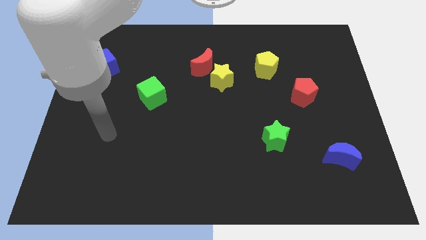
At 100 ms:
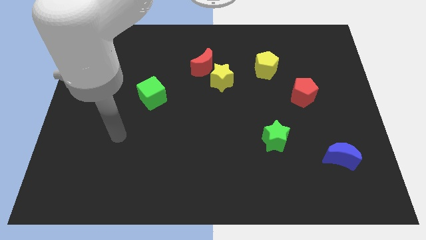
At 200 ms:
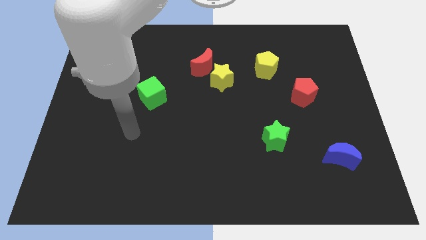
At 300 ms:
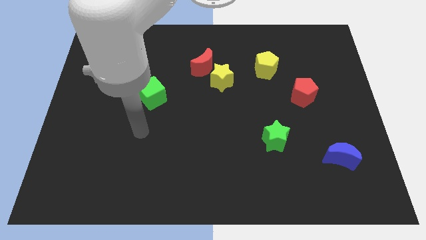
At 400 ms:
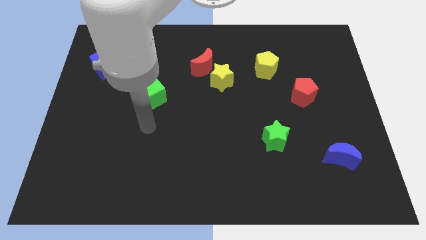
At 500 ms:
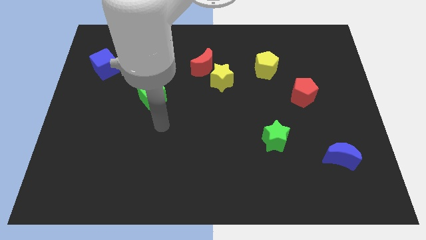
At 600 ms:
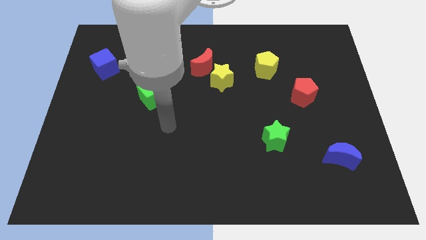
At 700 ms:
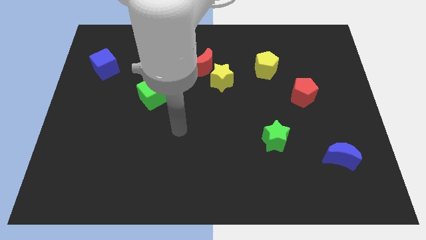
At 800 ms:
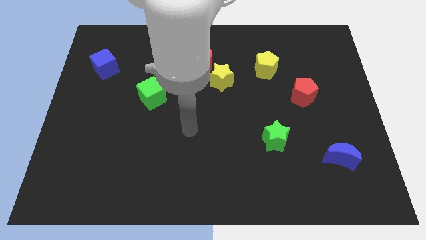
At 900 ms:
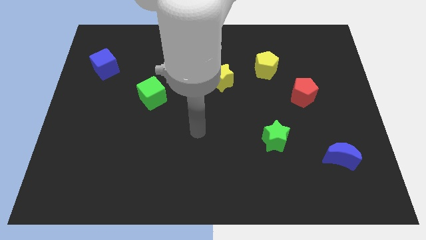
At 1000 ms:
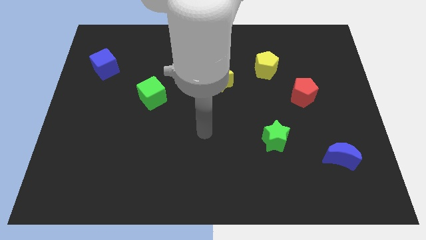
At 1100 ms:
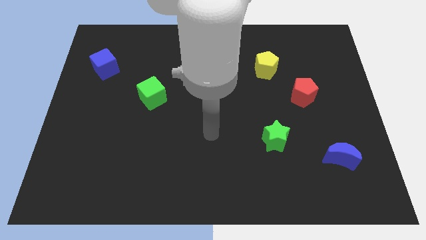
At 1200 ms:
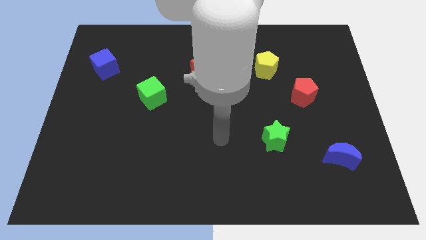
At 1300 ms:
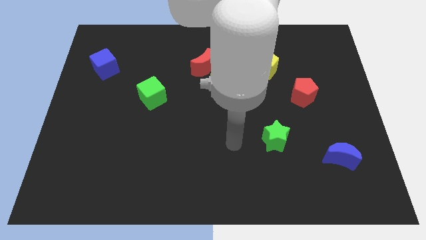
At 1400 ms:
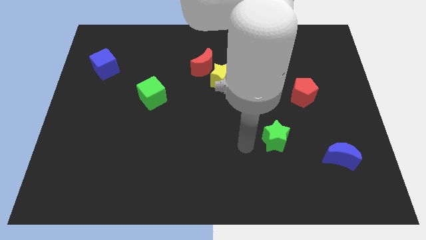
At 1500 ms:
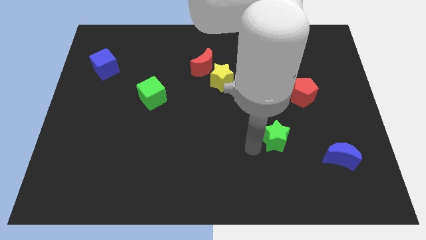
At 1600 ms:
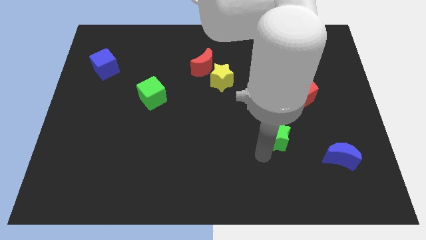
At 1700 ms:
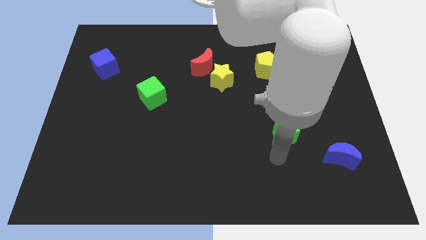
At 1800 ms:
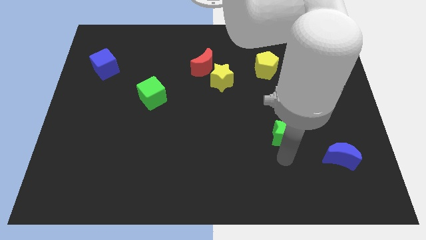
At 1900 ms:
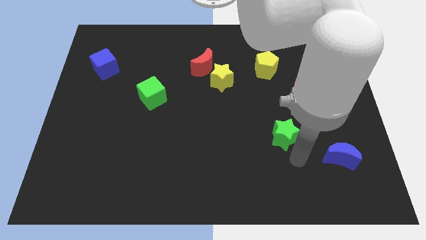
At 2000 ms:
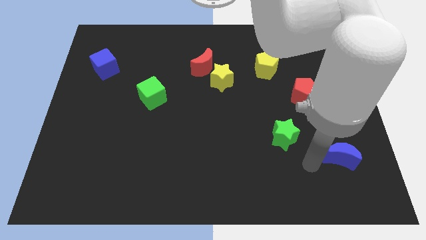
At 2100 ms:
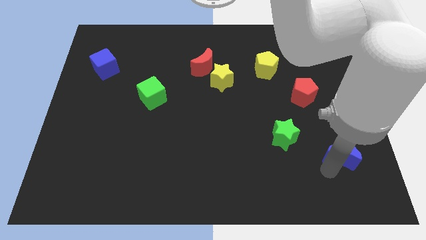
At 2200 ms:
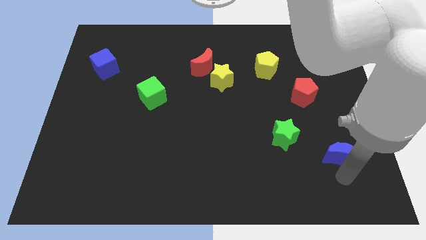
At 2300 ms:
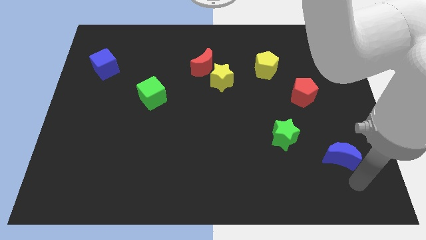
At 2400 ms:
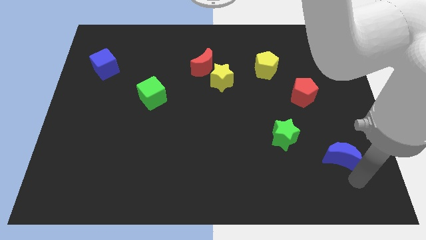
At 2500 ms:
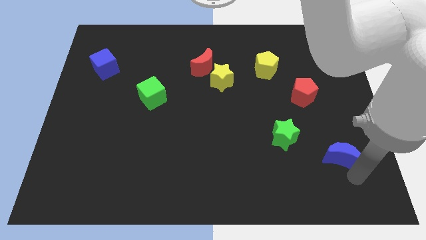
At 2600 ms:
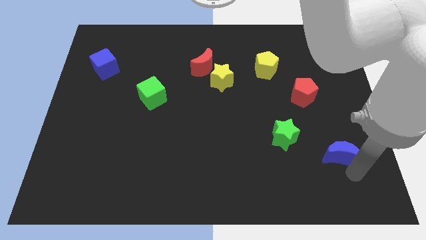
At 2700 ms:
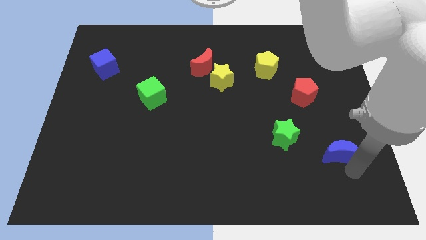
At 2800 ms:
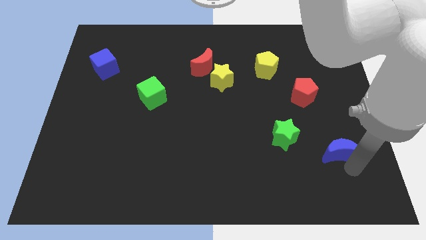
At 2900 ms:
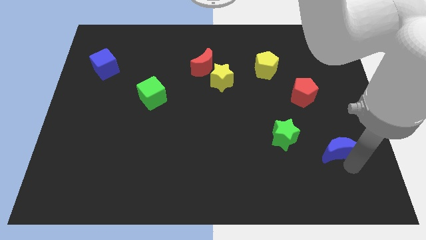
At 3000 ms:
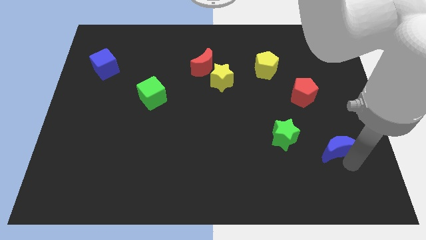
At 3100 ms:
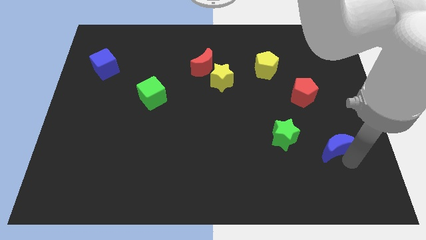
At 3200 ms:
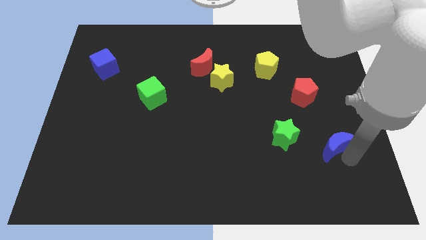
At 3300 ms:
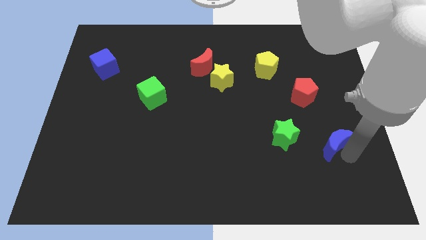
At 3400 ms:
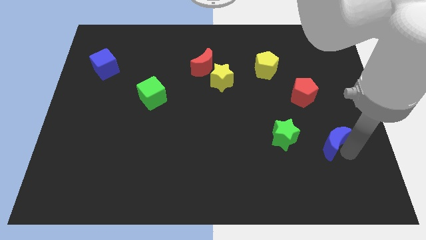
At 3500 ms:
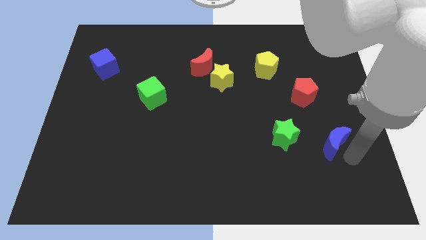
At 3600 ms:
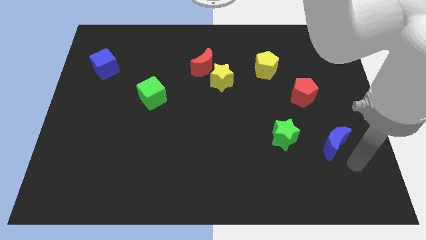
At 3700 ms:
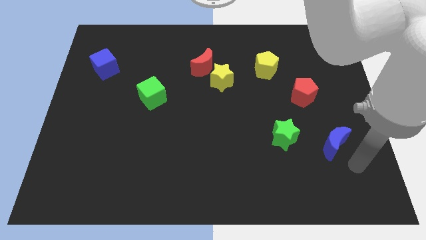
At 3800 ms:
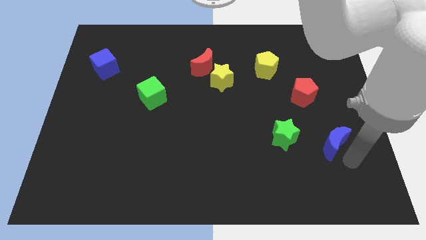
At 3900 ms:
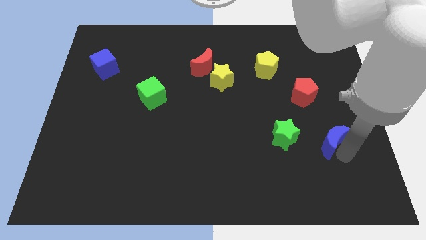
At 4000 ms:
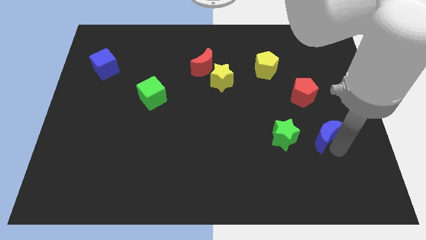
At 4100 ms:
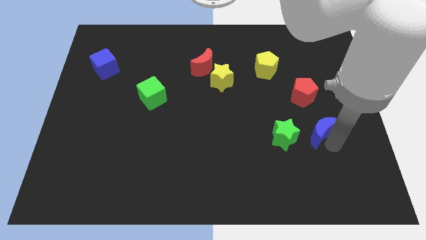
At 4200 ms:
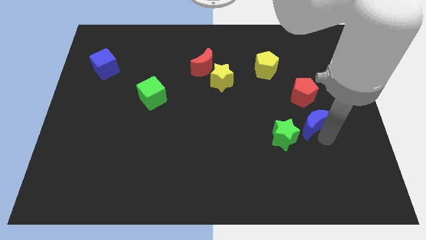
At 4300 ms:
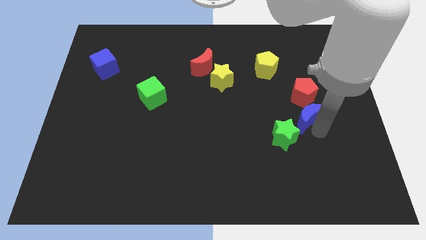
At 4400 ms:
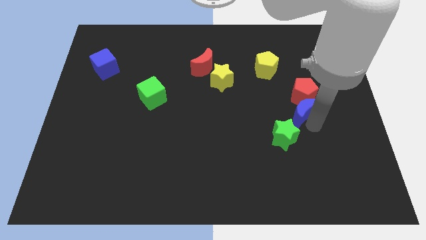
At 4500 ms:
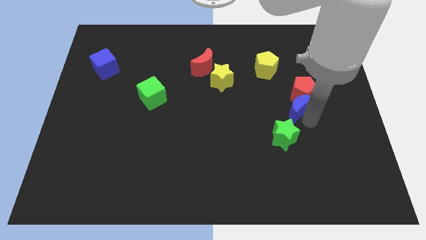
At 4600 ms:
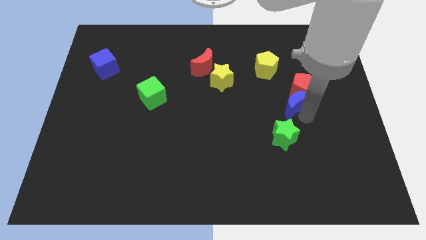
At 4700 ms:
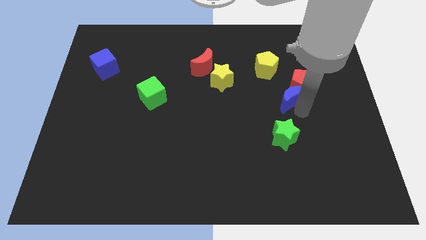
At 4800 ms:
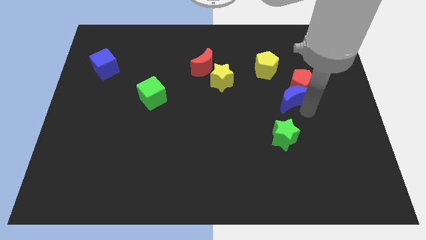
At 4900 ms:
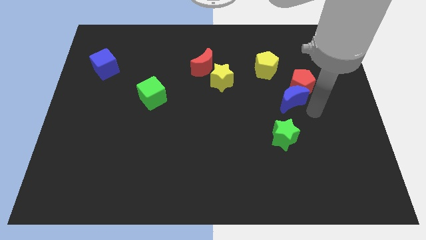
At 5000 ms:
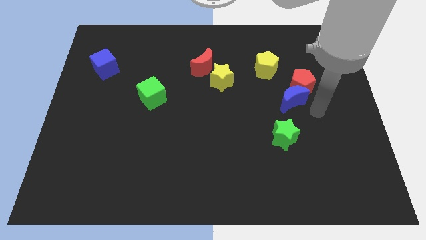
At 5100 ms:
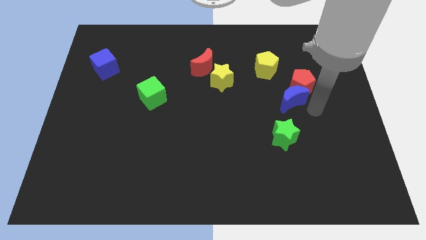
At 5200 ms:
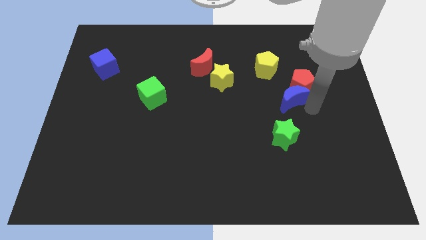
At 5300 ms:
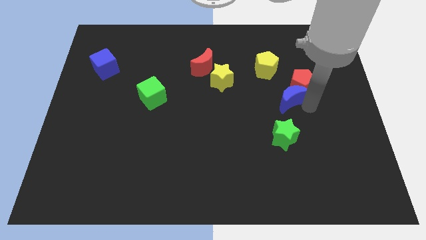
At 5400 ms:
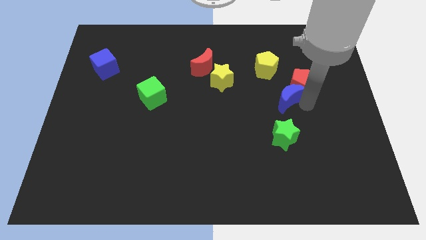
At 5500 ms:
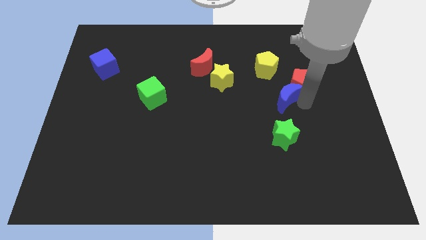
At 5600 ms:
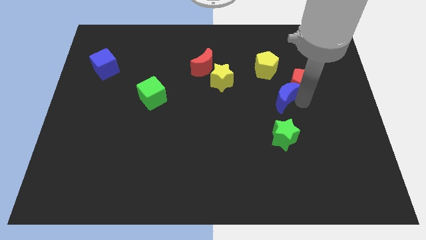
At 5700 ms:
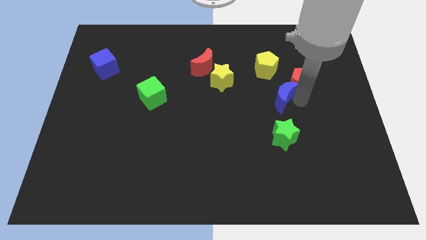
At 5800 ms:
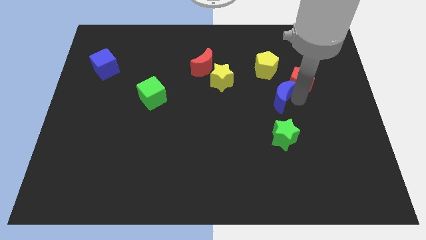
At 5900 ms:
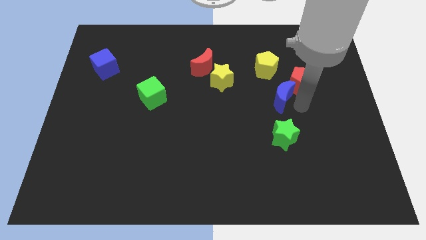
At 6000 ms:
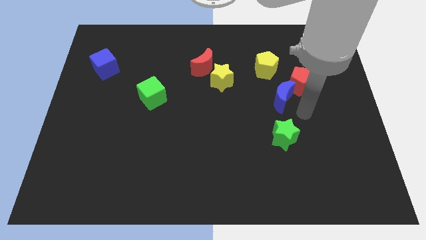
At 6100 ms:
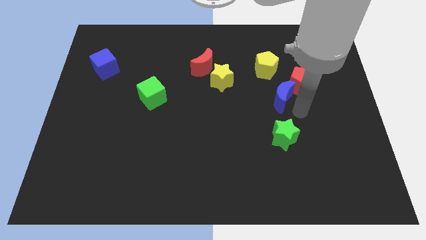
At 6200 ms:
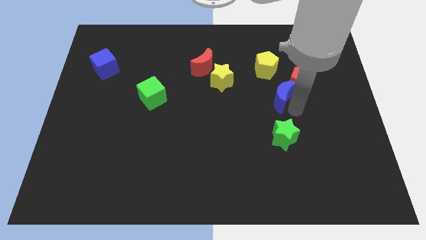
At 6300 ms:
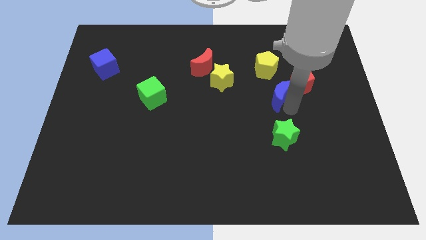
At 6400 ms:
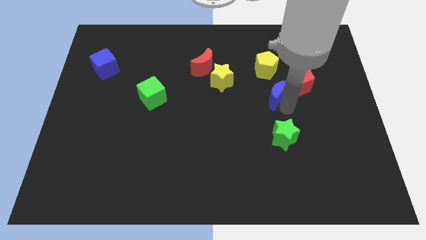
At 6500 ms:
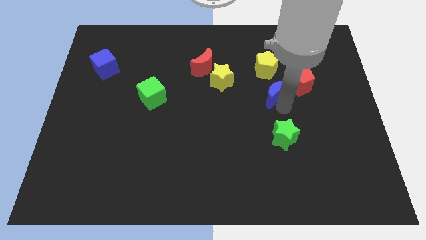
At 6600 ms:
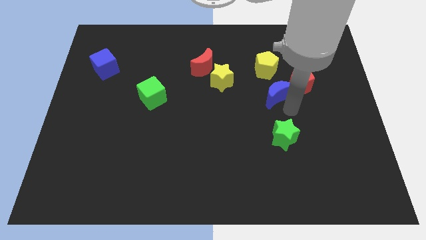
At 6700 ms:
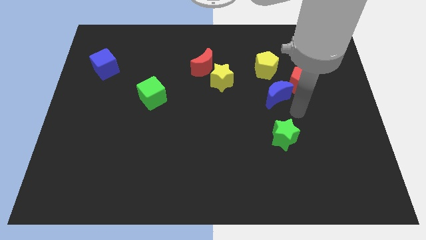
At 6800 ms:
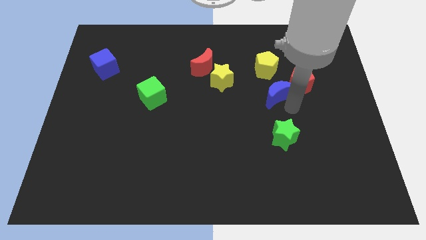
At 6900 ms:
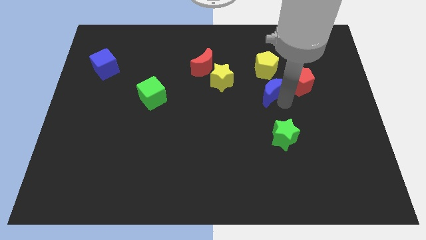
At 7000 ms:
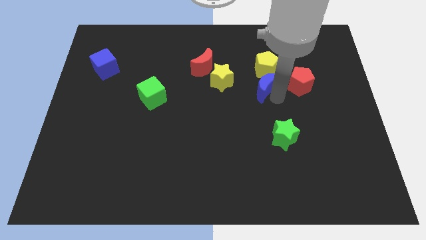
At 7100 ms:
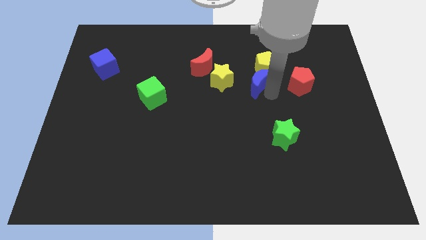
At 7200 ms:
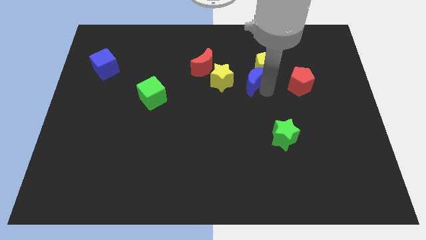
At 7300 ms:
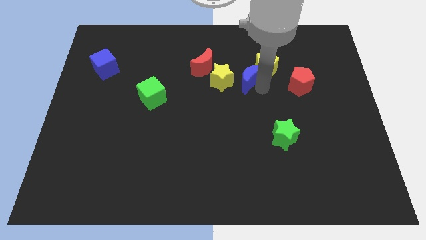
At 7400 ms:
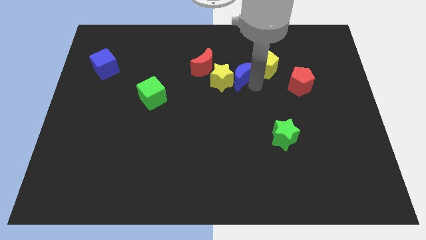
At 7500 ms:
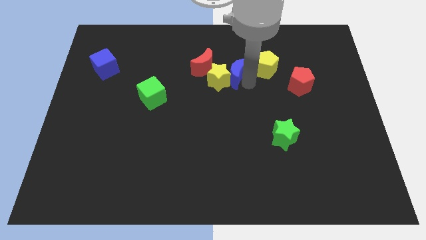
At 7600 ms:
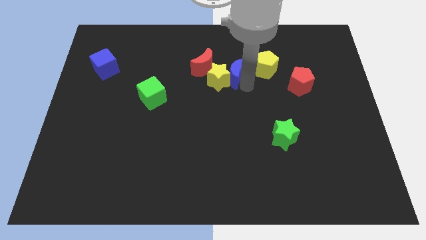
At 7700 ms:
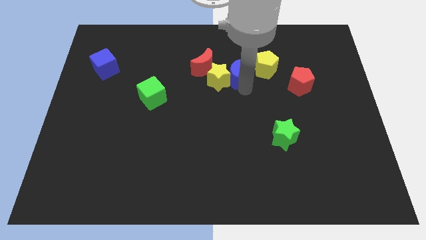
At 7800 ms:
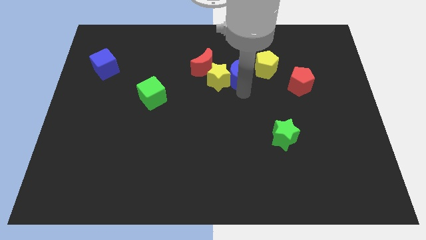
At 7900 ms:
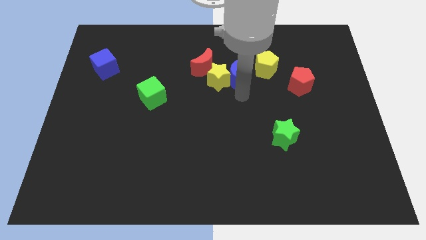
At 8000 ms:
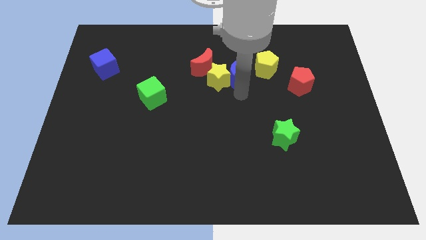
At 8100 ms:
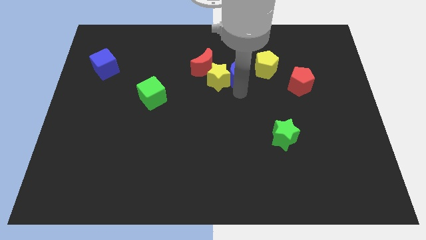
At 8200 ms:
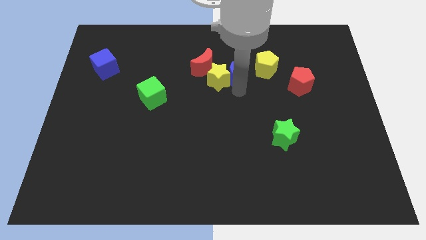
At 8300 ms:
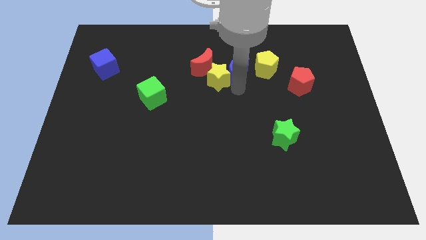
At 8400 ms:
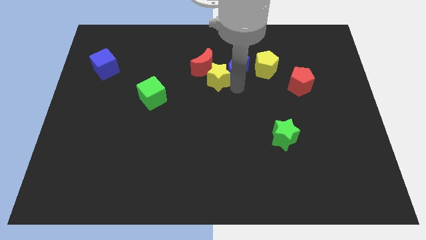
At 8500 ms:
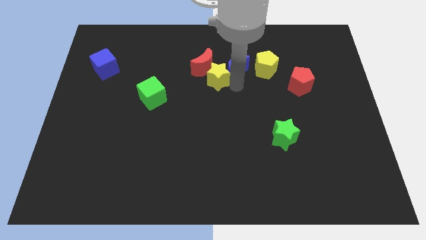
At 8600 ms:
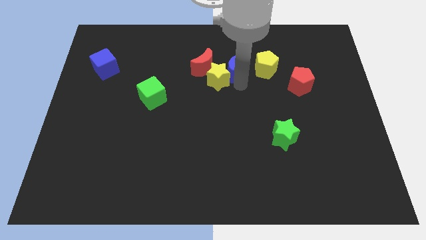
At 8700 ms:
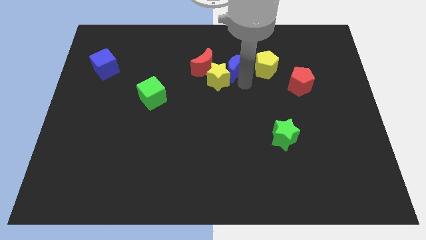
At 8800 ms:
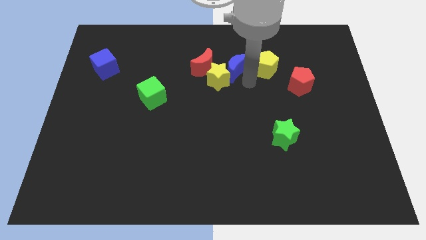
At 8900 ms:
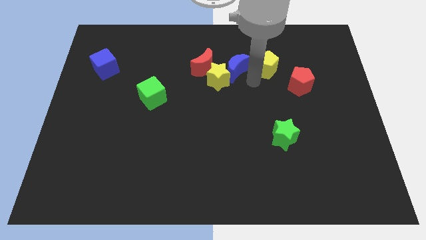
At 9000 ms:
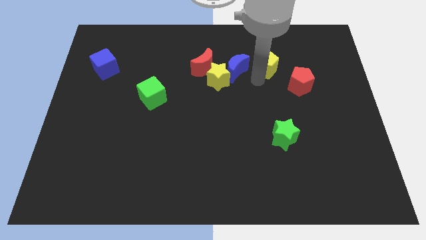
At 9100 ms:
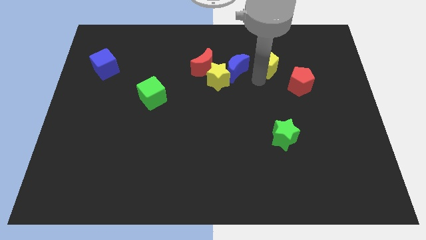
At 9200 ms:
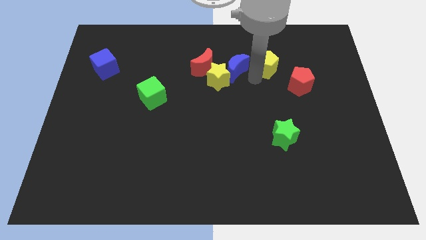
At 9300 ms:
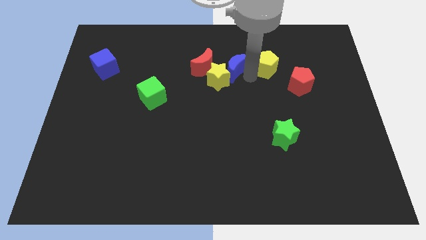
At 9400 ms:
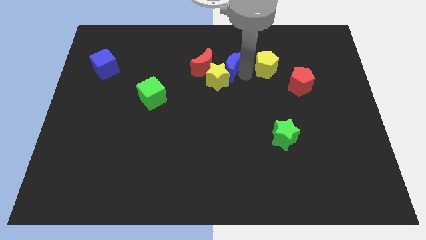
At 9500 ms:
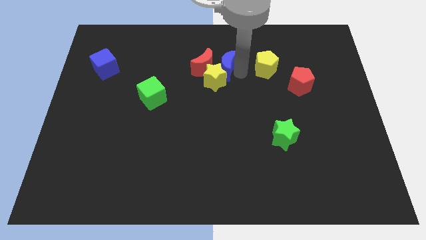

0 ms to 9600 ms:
put the blue moon close to the red moon
